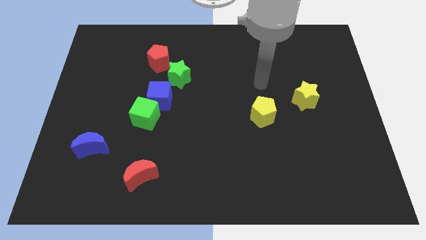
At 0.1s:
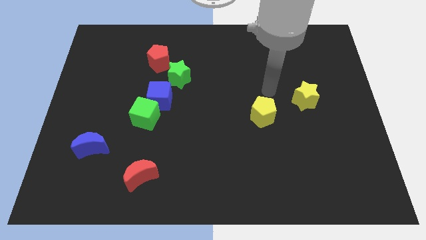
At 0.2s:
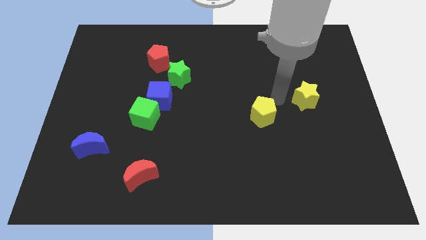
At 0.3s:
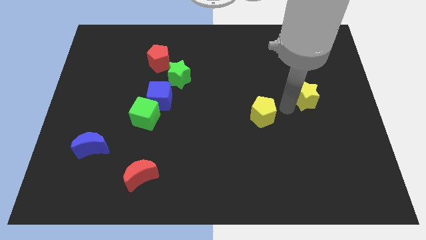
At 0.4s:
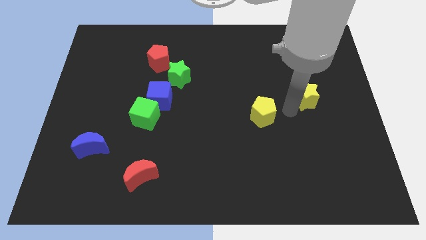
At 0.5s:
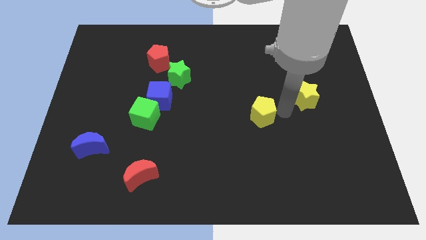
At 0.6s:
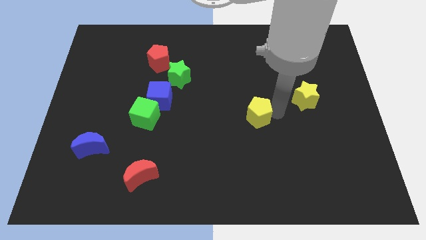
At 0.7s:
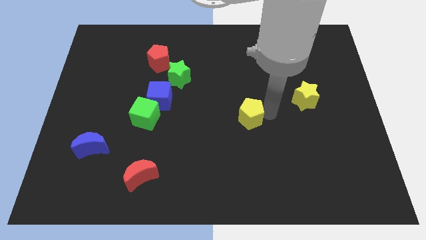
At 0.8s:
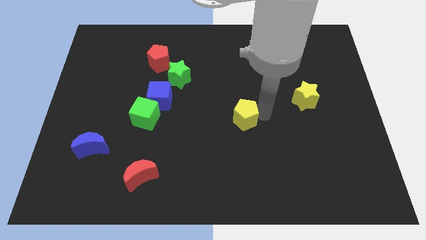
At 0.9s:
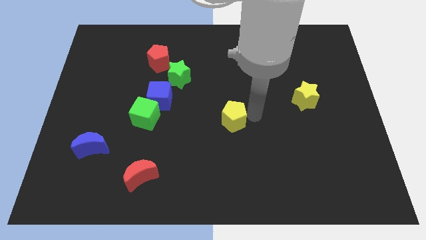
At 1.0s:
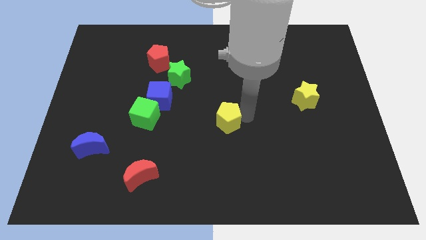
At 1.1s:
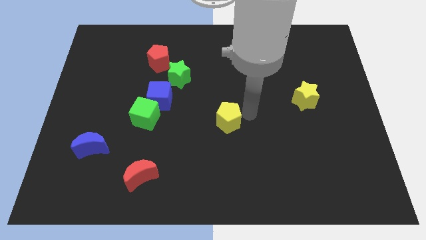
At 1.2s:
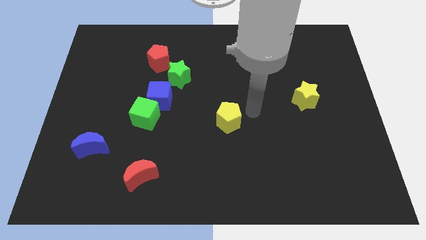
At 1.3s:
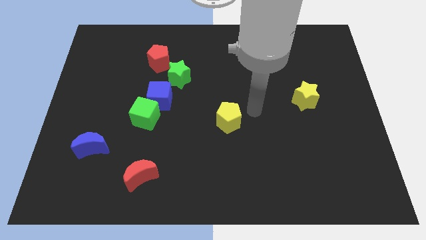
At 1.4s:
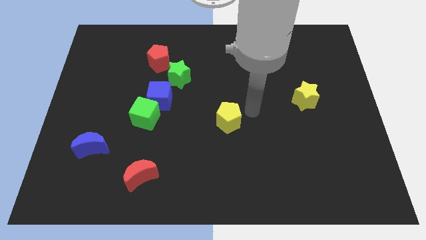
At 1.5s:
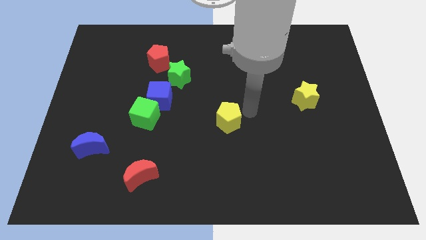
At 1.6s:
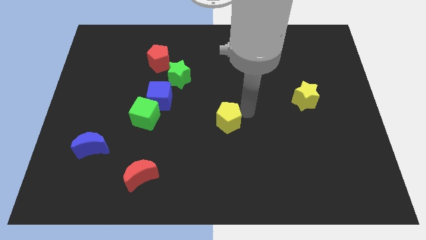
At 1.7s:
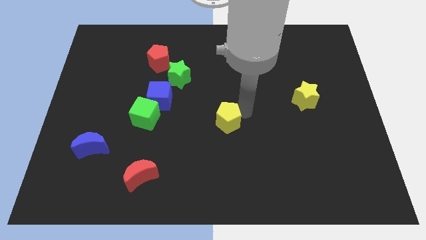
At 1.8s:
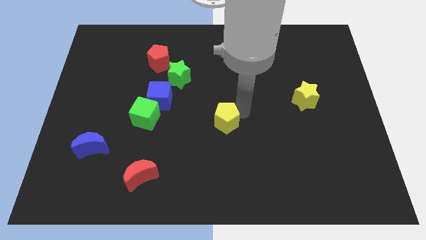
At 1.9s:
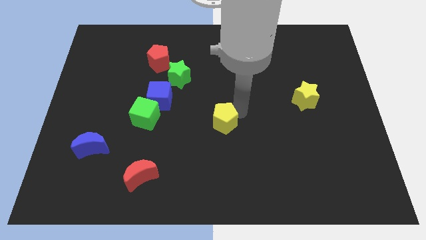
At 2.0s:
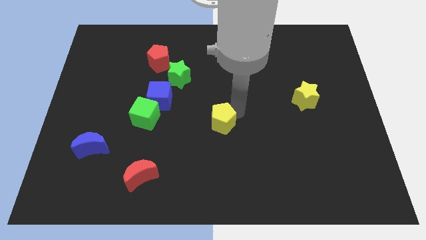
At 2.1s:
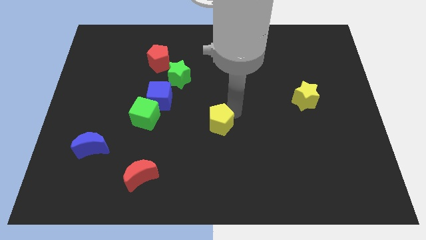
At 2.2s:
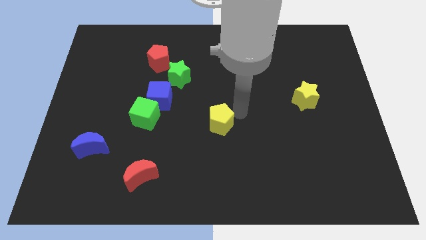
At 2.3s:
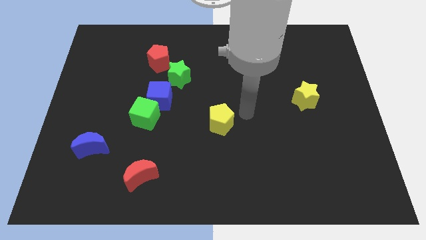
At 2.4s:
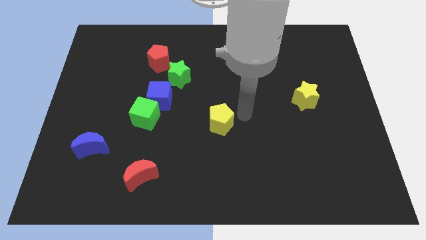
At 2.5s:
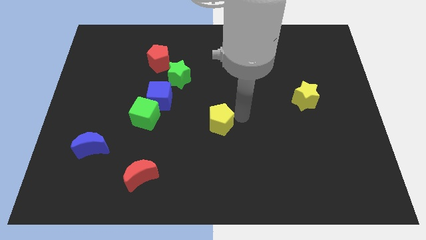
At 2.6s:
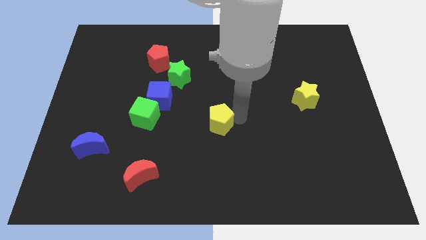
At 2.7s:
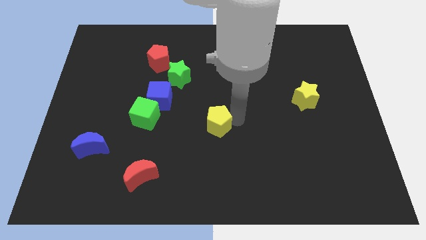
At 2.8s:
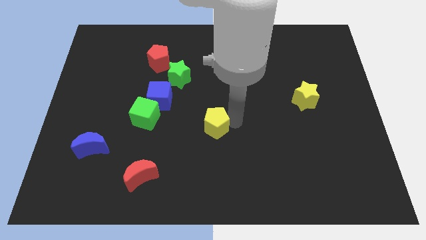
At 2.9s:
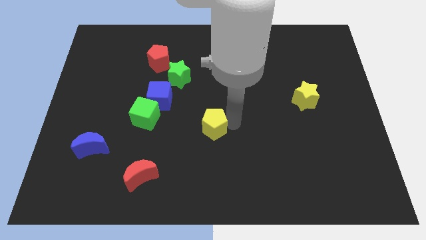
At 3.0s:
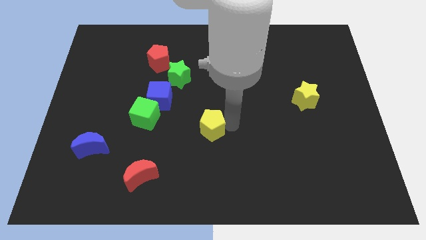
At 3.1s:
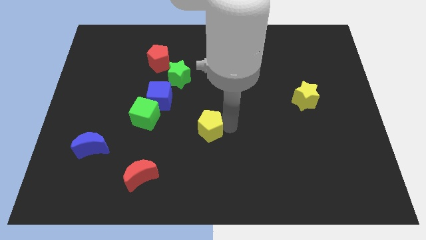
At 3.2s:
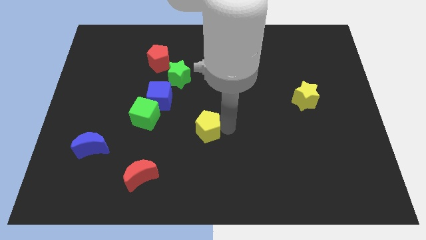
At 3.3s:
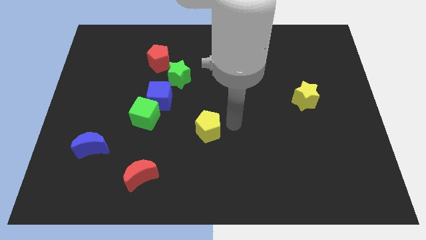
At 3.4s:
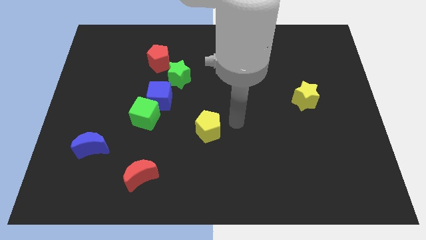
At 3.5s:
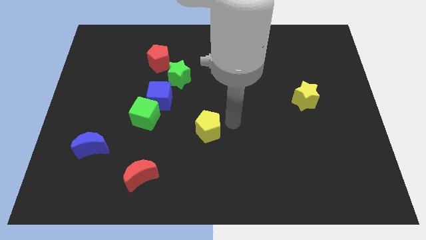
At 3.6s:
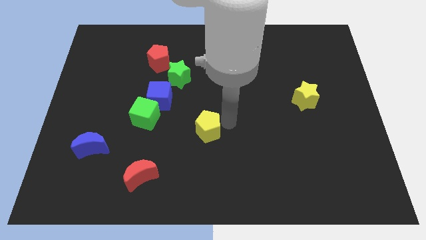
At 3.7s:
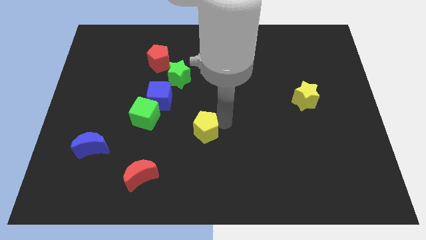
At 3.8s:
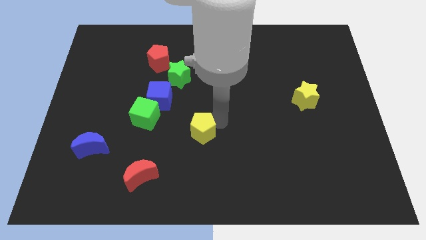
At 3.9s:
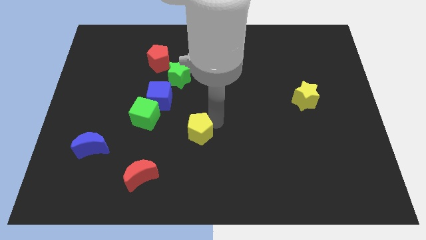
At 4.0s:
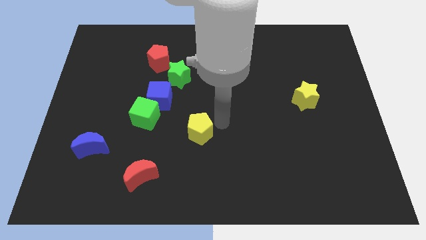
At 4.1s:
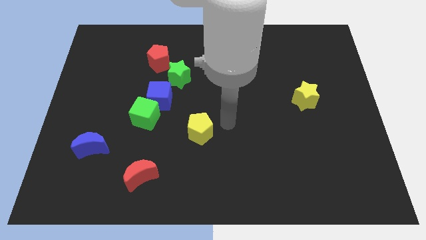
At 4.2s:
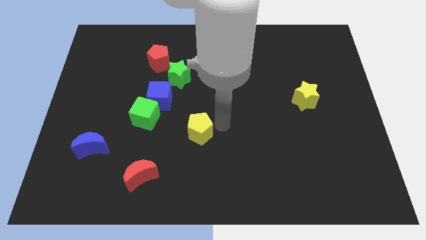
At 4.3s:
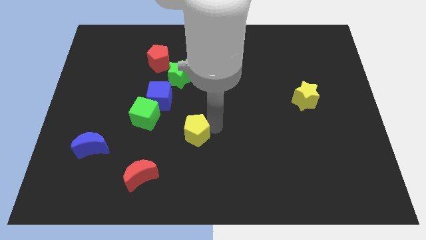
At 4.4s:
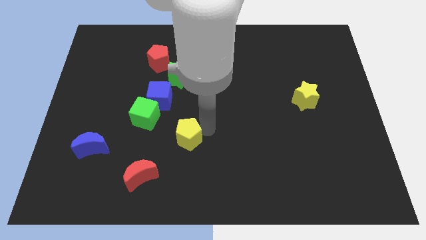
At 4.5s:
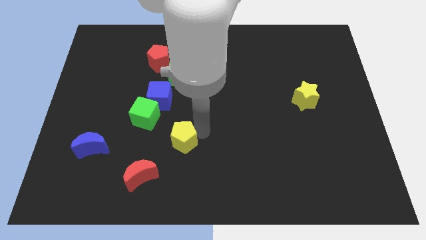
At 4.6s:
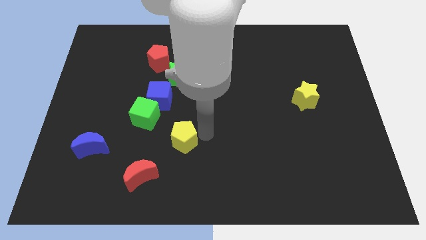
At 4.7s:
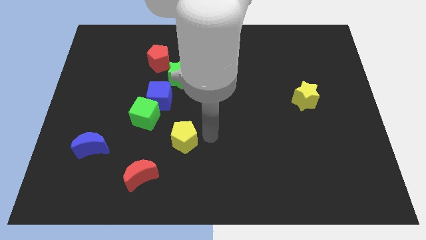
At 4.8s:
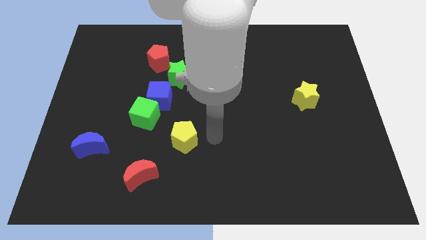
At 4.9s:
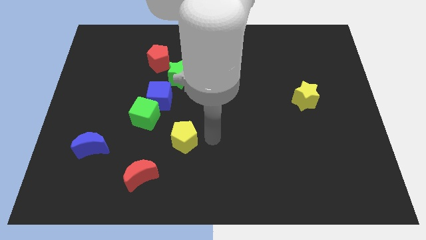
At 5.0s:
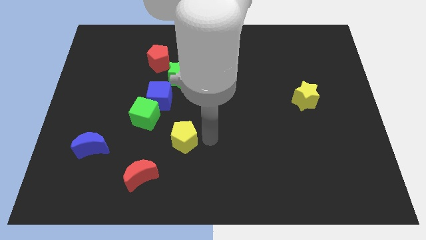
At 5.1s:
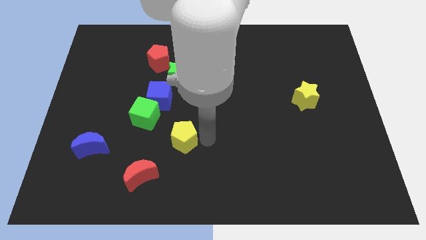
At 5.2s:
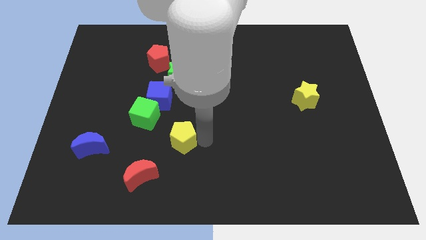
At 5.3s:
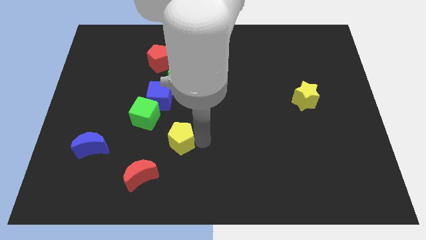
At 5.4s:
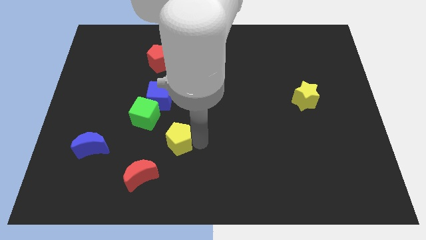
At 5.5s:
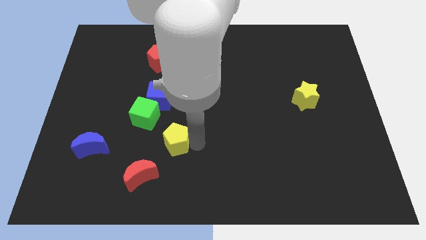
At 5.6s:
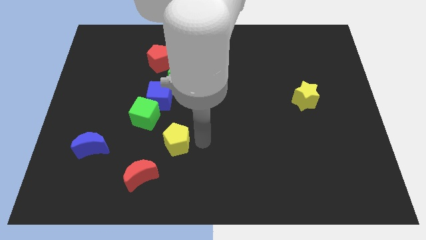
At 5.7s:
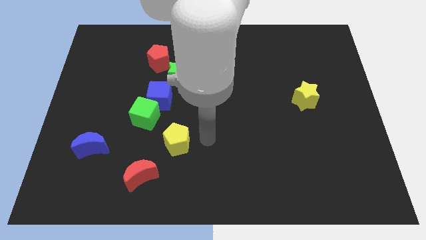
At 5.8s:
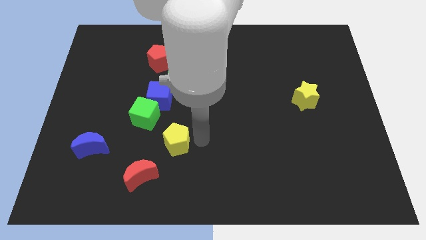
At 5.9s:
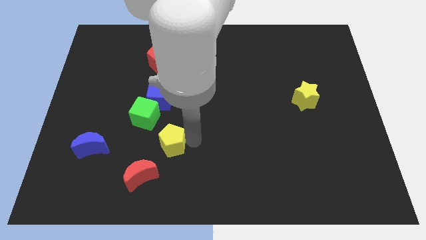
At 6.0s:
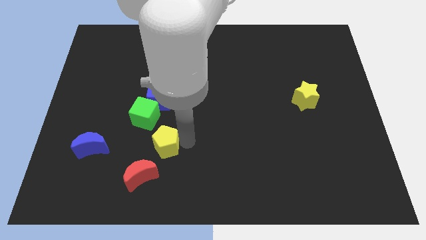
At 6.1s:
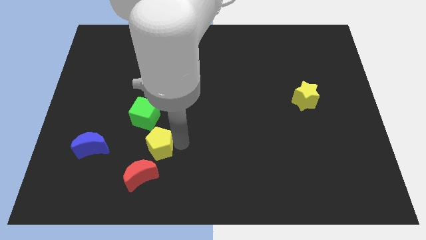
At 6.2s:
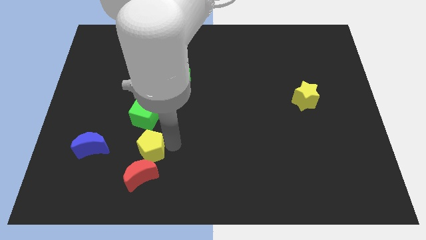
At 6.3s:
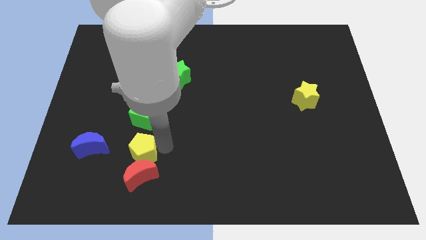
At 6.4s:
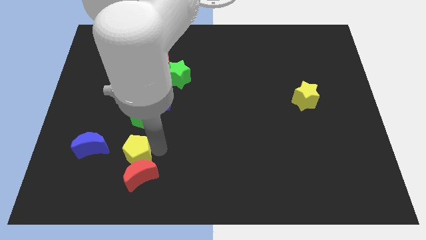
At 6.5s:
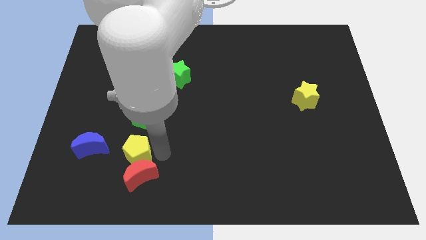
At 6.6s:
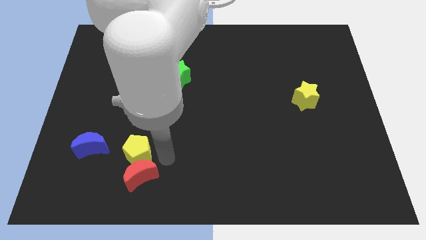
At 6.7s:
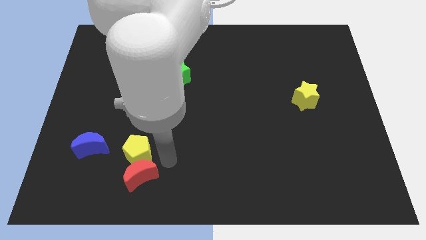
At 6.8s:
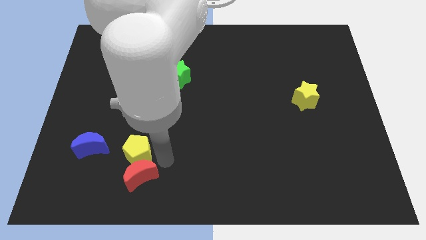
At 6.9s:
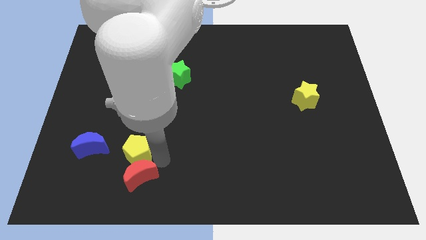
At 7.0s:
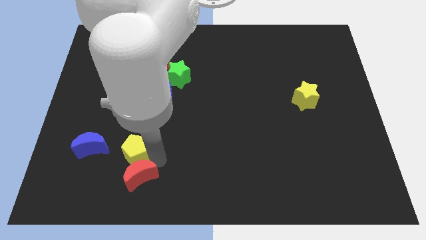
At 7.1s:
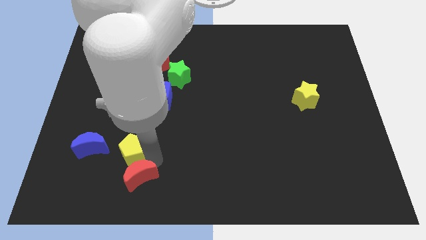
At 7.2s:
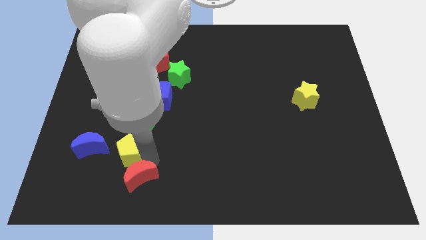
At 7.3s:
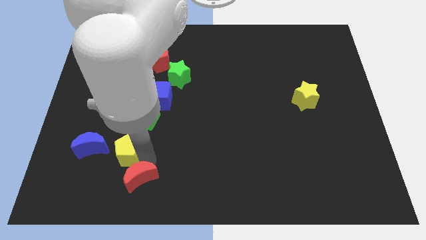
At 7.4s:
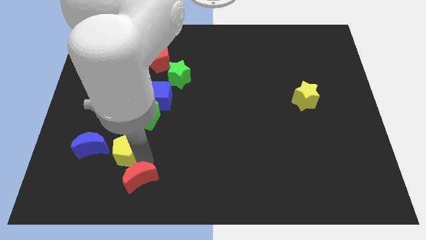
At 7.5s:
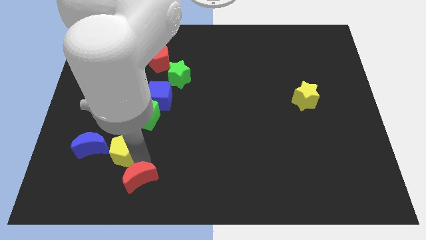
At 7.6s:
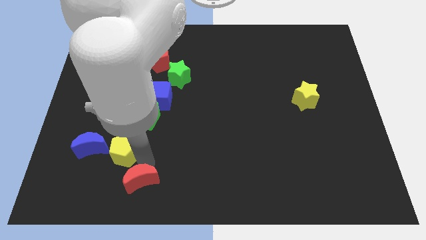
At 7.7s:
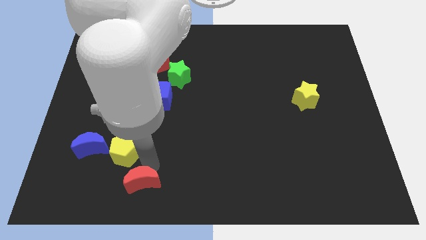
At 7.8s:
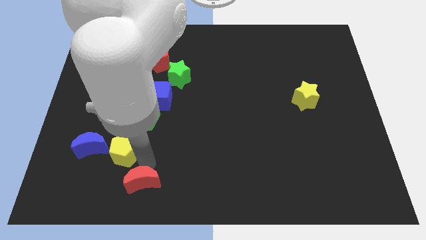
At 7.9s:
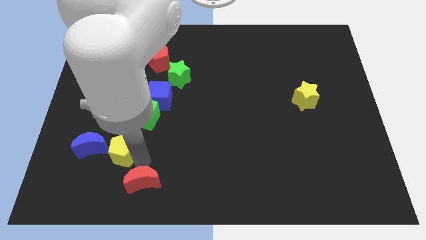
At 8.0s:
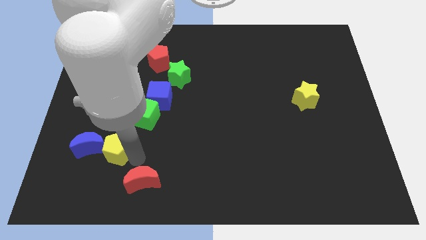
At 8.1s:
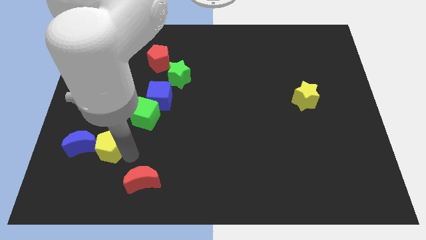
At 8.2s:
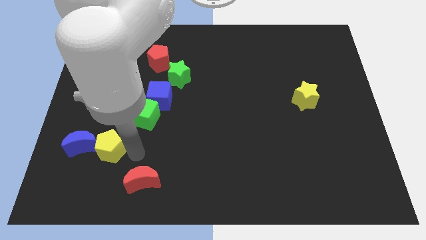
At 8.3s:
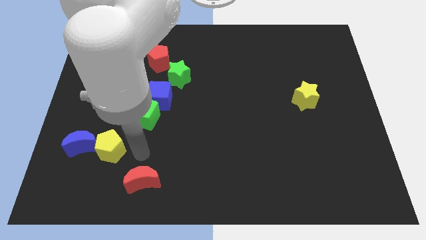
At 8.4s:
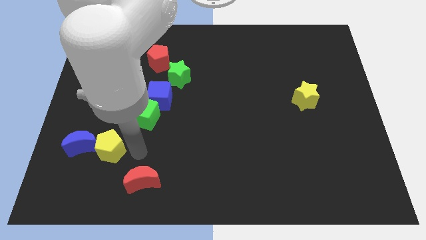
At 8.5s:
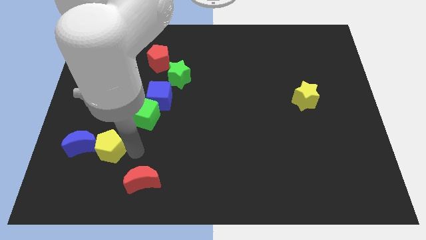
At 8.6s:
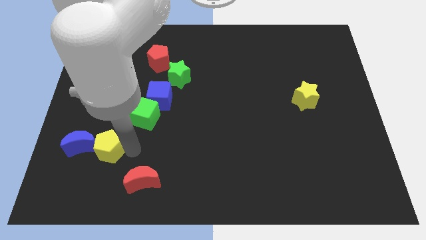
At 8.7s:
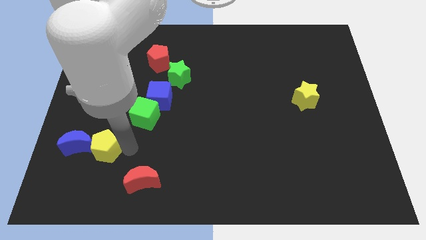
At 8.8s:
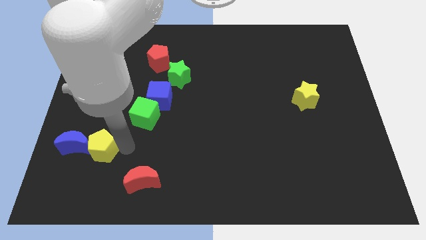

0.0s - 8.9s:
push the yellow pentagon to the blue moon
